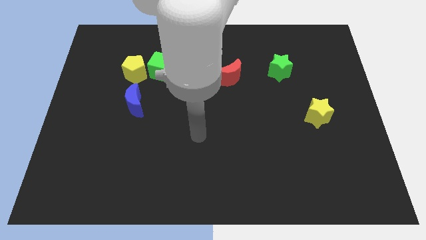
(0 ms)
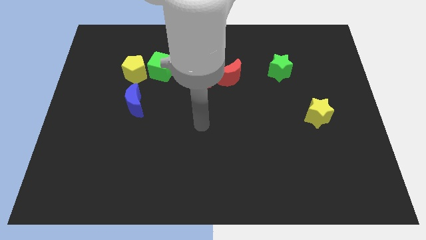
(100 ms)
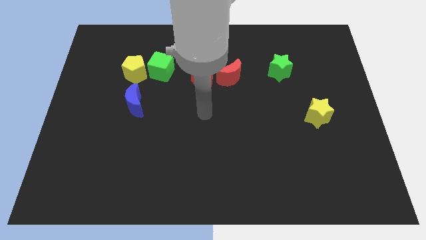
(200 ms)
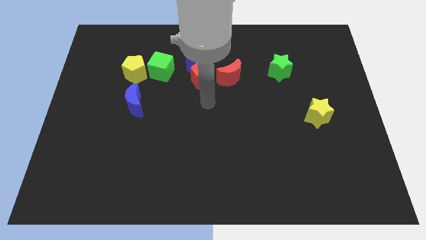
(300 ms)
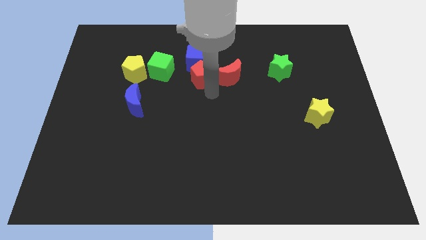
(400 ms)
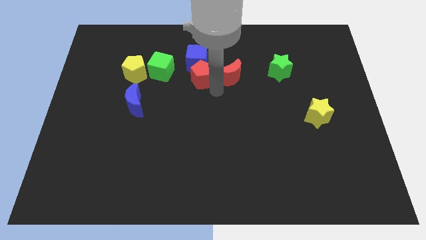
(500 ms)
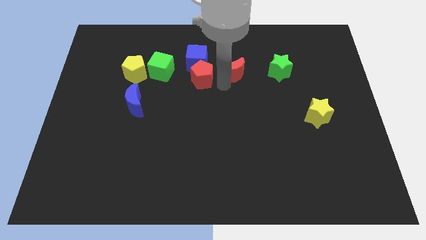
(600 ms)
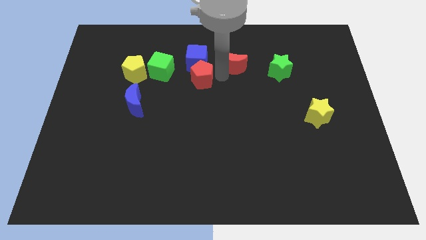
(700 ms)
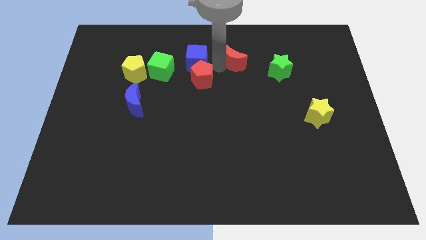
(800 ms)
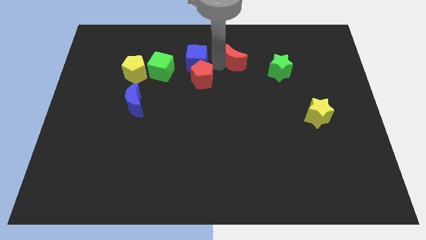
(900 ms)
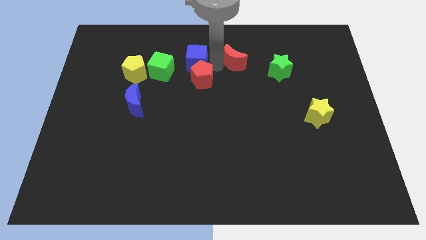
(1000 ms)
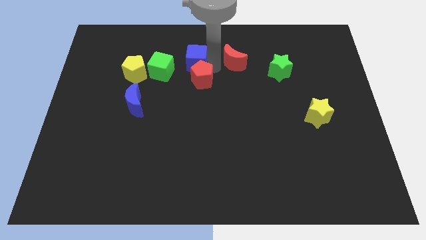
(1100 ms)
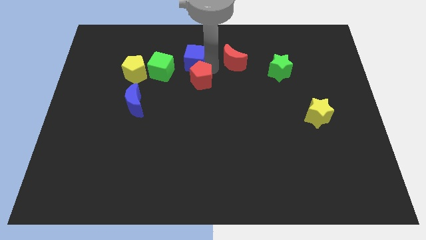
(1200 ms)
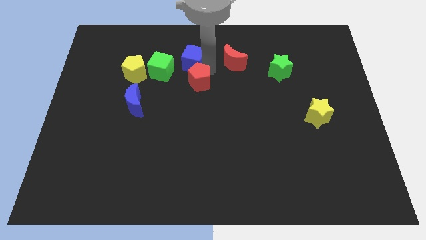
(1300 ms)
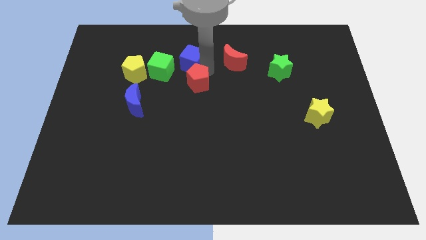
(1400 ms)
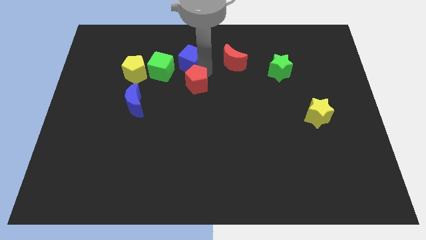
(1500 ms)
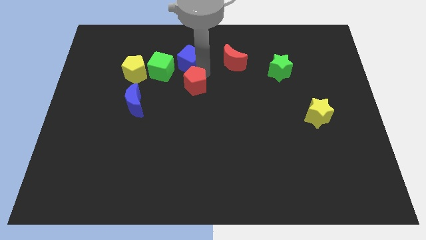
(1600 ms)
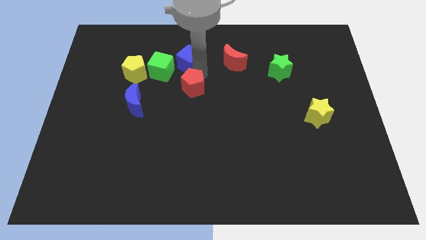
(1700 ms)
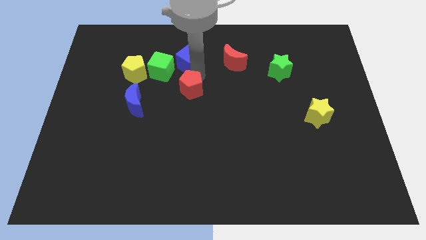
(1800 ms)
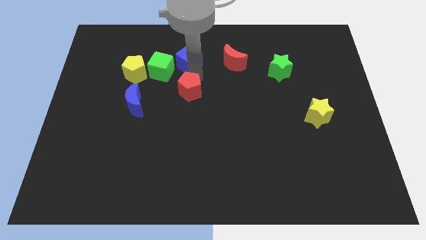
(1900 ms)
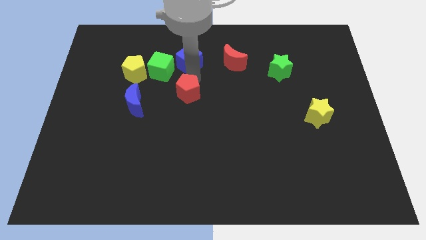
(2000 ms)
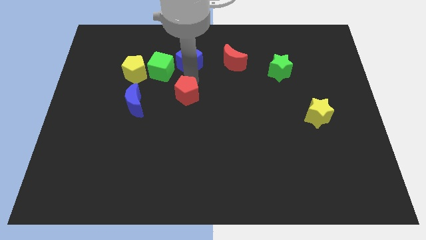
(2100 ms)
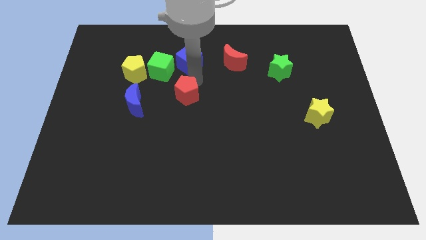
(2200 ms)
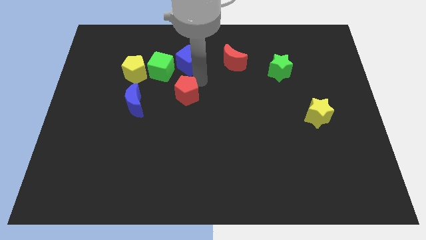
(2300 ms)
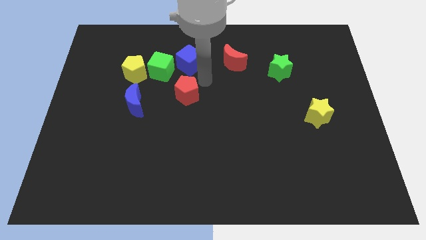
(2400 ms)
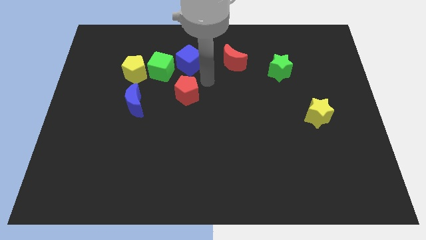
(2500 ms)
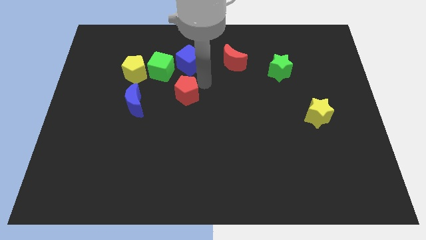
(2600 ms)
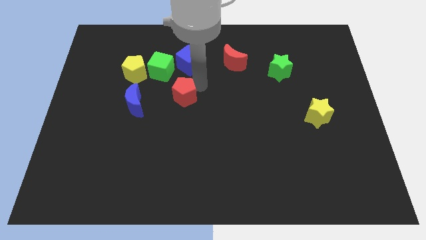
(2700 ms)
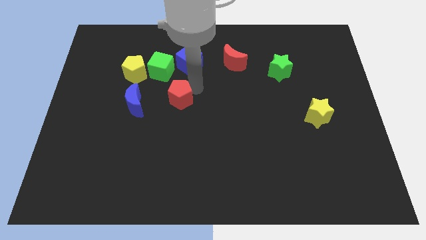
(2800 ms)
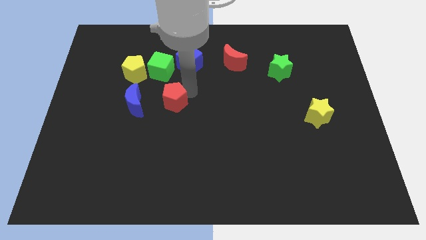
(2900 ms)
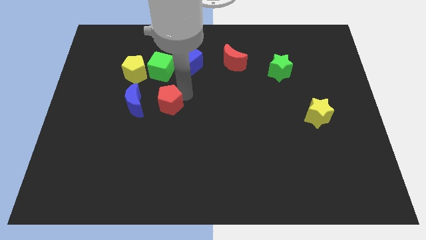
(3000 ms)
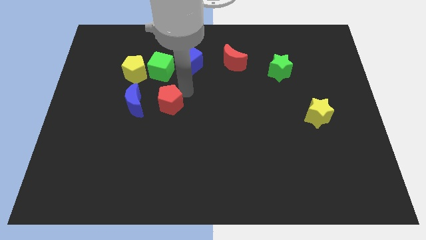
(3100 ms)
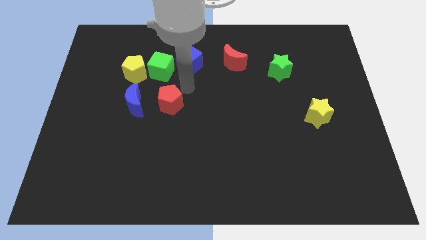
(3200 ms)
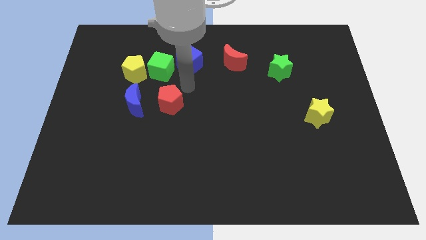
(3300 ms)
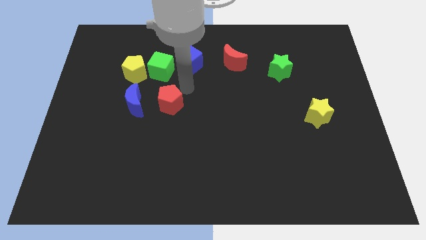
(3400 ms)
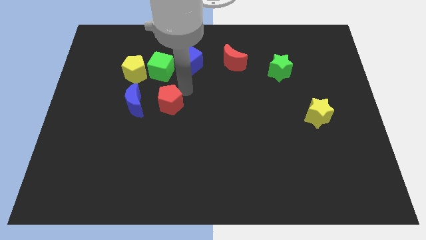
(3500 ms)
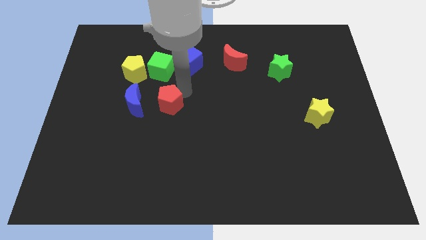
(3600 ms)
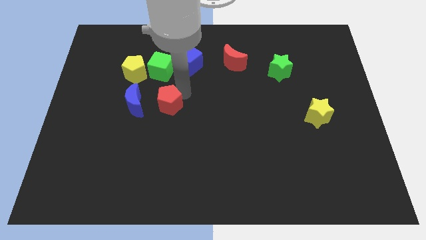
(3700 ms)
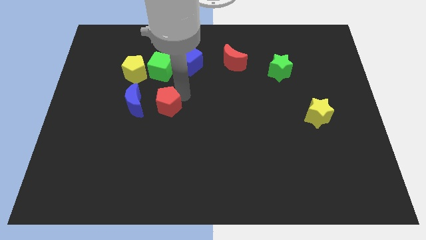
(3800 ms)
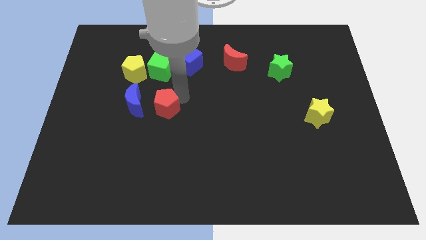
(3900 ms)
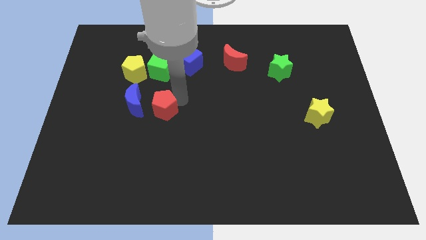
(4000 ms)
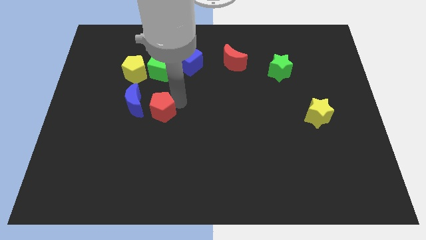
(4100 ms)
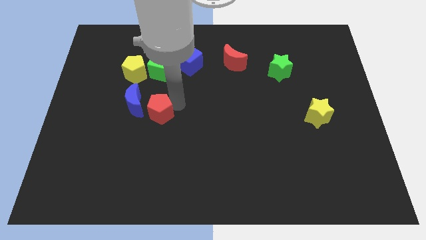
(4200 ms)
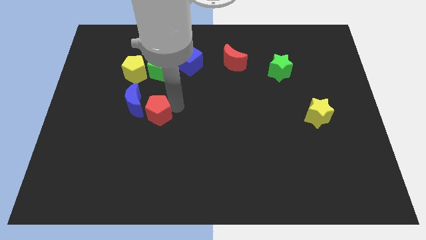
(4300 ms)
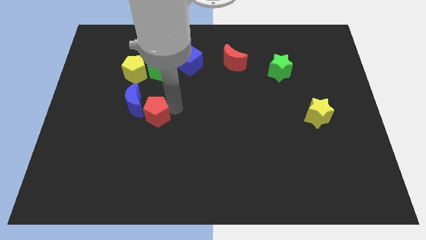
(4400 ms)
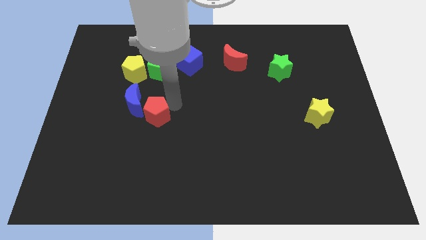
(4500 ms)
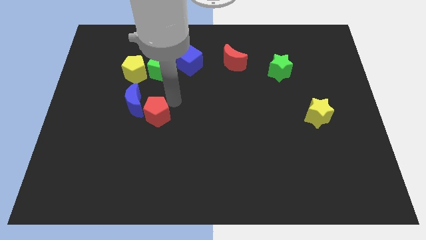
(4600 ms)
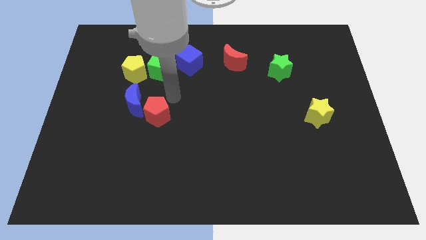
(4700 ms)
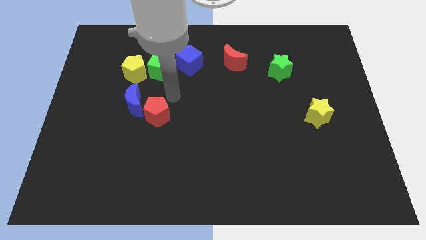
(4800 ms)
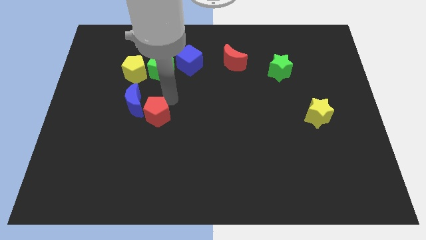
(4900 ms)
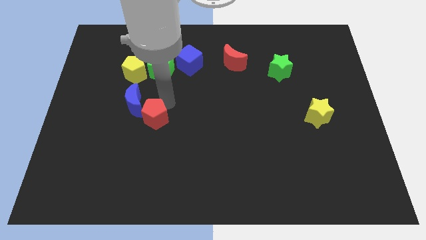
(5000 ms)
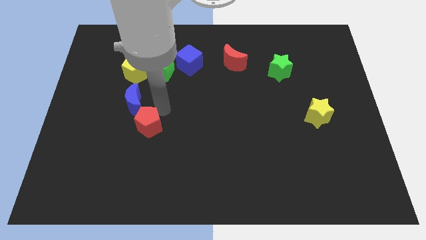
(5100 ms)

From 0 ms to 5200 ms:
slide the red pentagon to the bottom of the blue moon

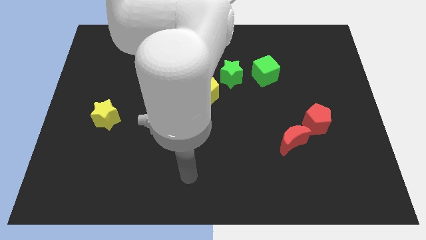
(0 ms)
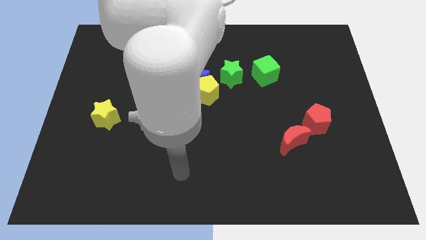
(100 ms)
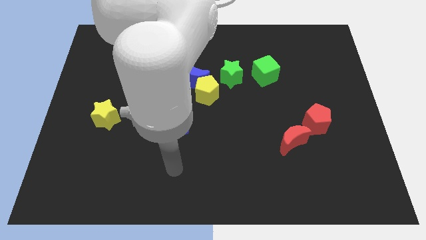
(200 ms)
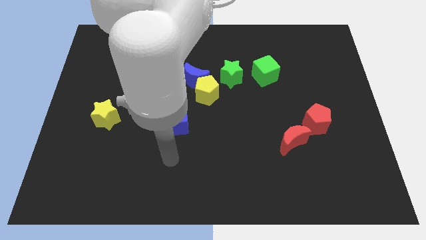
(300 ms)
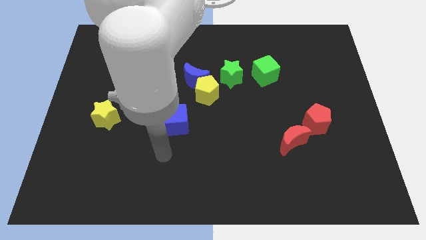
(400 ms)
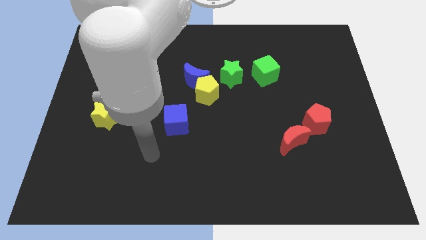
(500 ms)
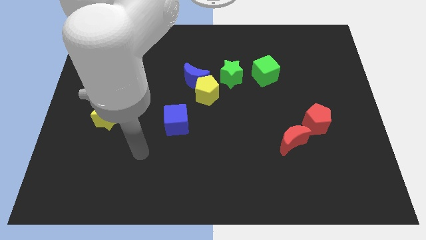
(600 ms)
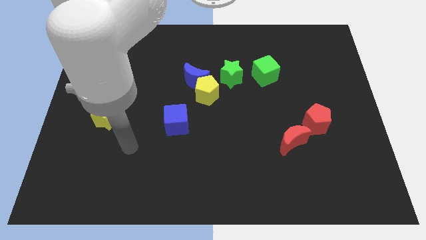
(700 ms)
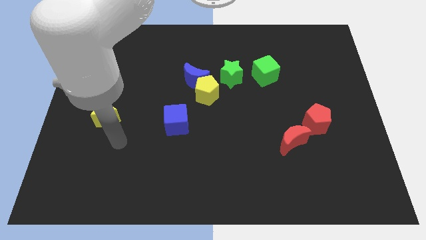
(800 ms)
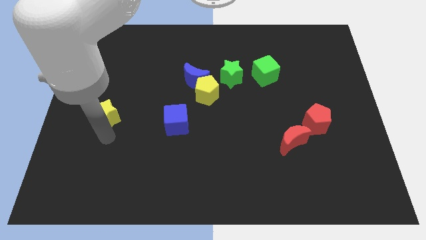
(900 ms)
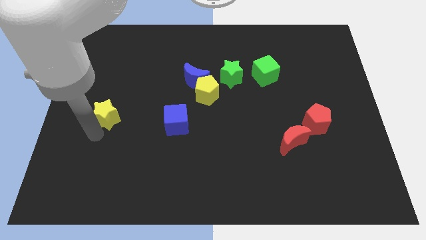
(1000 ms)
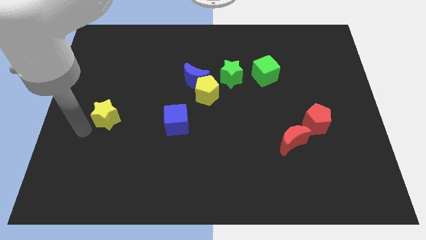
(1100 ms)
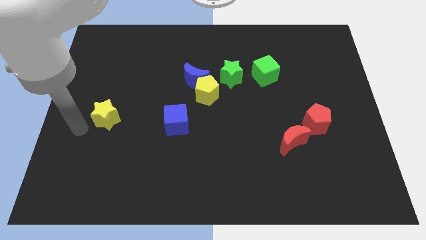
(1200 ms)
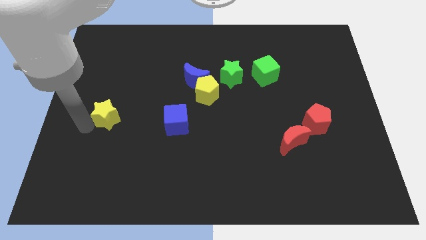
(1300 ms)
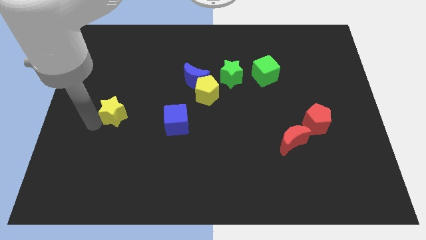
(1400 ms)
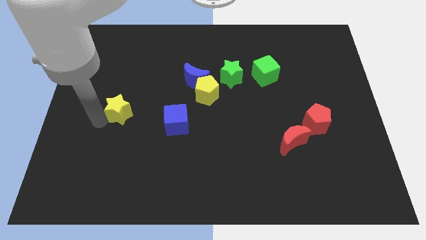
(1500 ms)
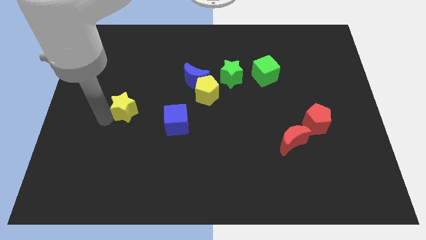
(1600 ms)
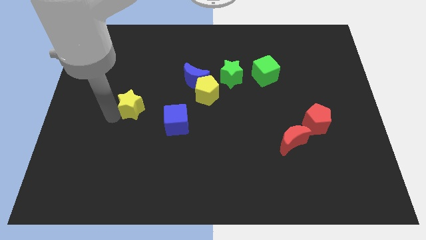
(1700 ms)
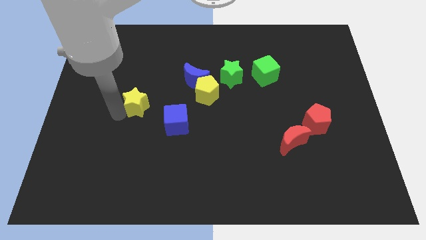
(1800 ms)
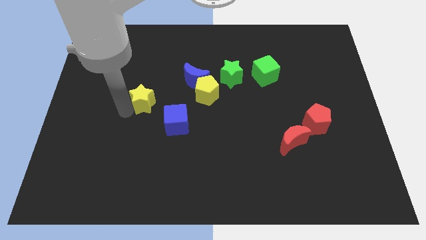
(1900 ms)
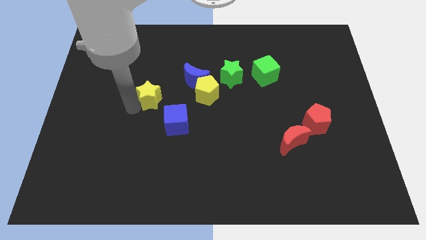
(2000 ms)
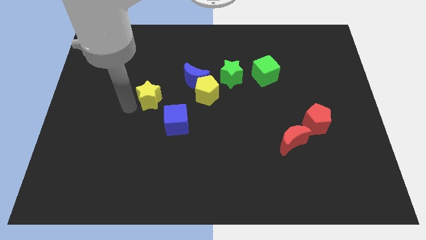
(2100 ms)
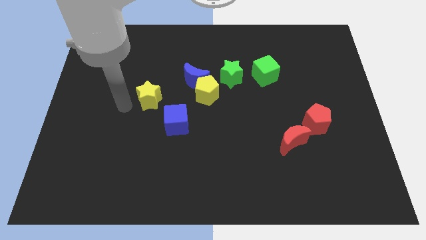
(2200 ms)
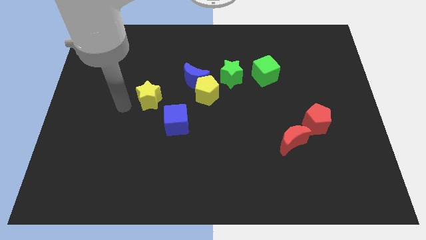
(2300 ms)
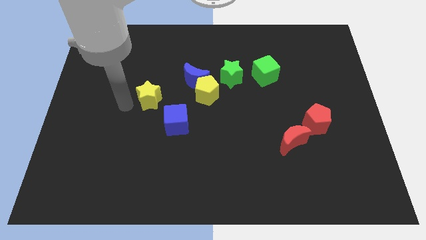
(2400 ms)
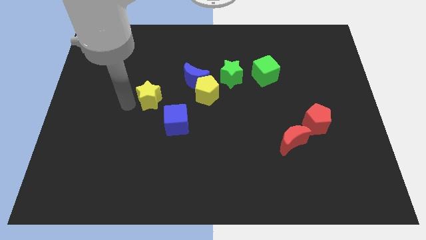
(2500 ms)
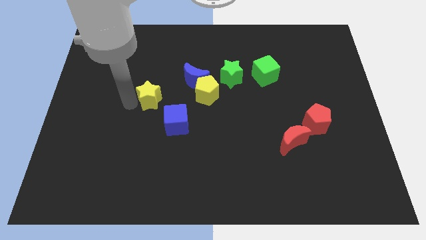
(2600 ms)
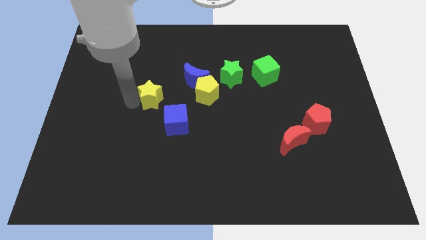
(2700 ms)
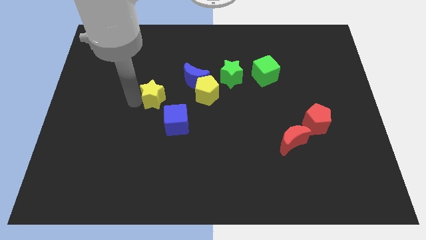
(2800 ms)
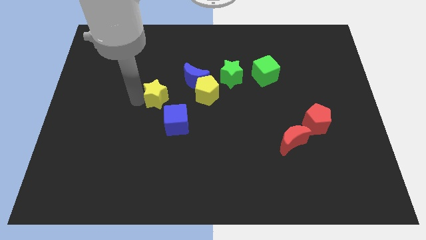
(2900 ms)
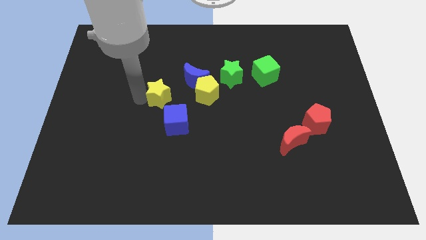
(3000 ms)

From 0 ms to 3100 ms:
push the yellow star to the top side of the blue cube
